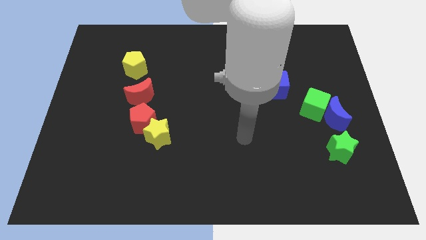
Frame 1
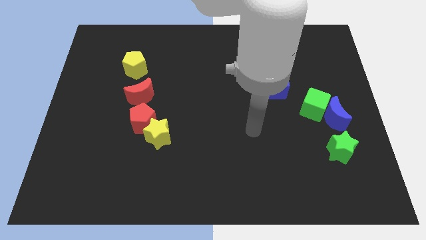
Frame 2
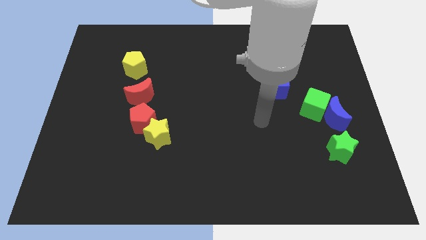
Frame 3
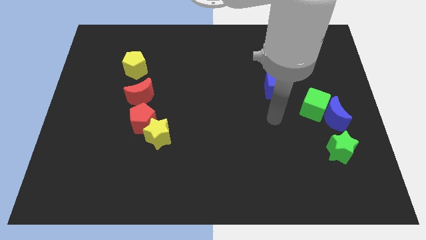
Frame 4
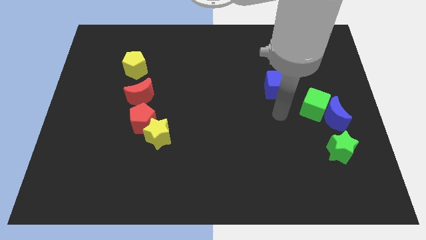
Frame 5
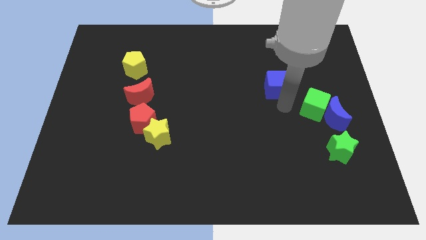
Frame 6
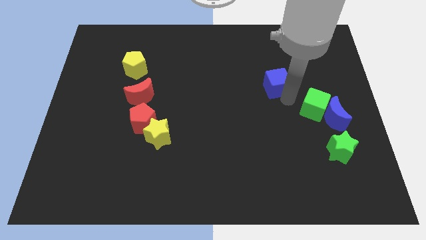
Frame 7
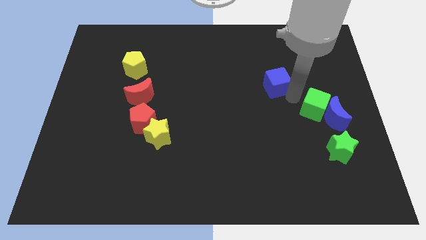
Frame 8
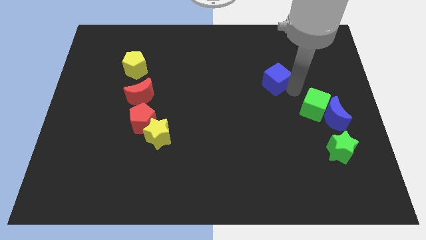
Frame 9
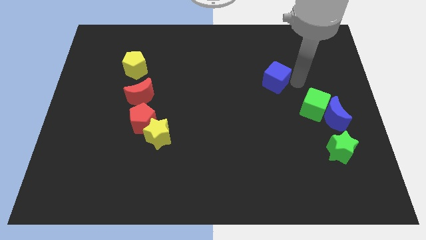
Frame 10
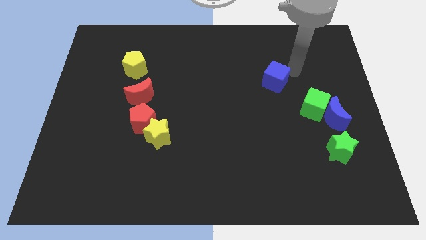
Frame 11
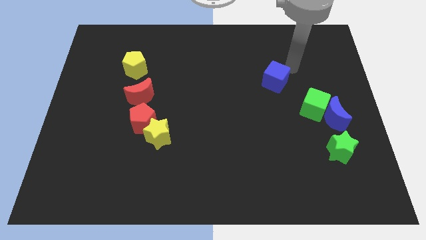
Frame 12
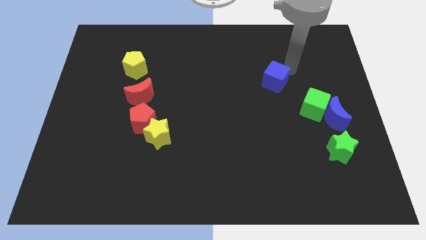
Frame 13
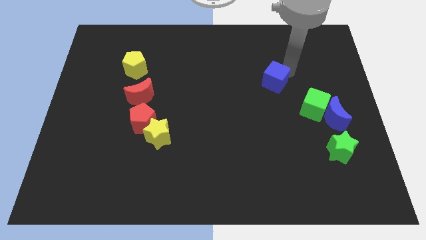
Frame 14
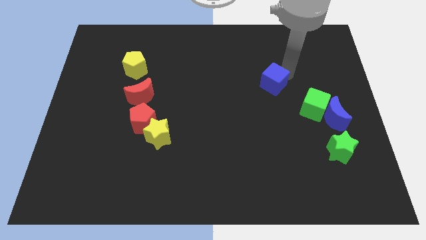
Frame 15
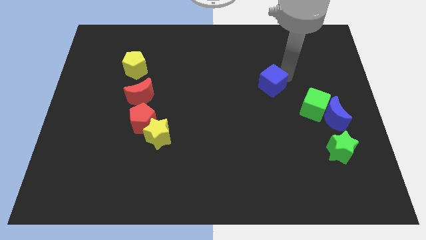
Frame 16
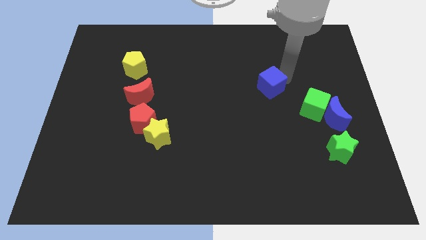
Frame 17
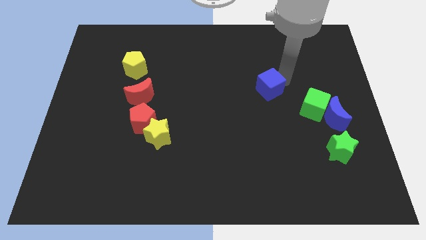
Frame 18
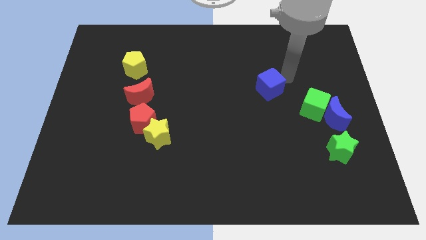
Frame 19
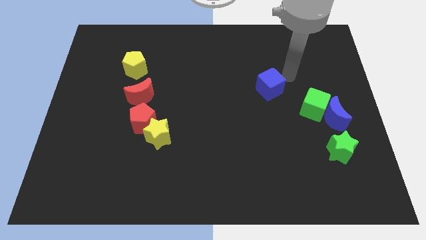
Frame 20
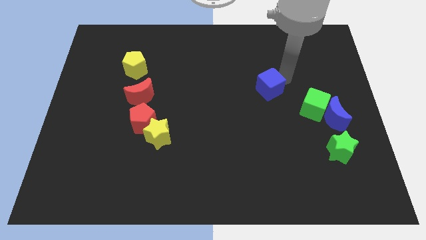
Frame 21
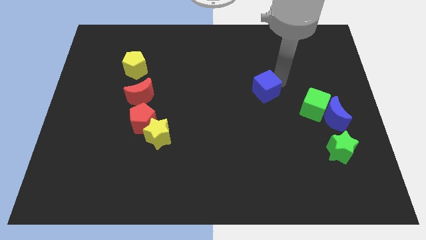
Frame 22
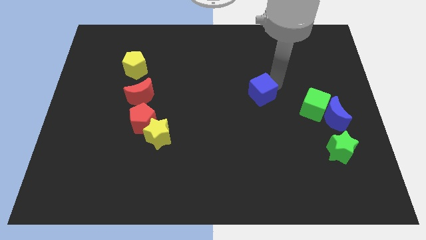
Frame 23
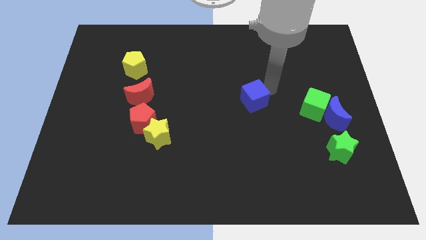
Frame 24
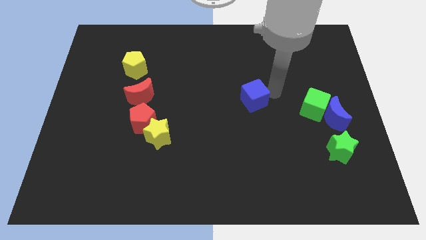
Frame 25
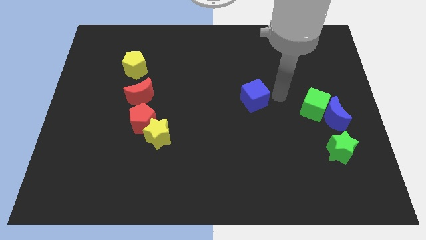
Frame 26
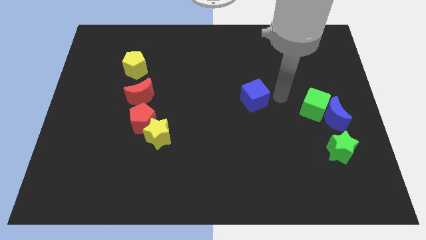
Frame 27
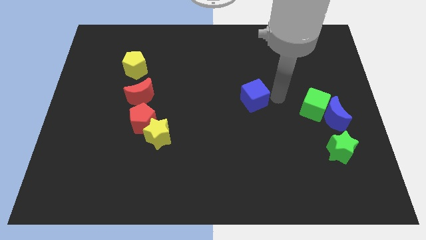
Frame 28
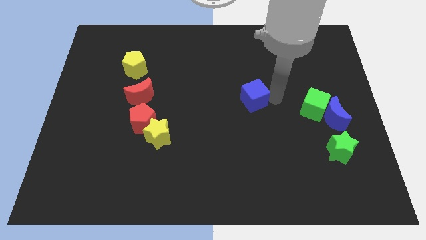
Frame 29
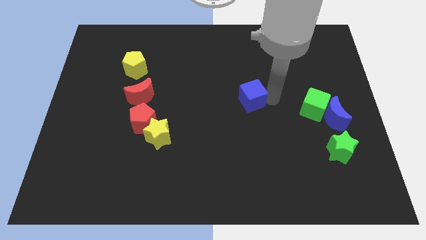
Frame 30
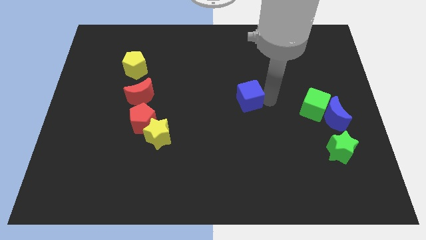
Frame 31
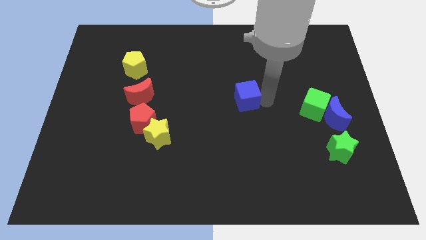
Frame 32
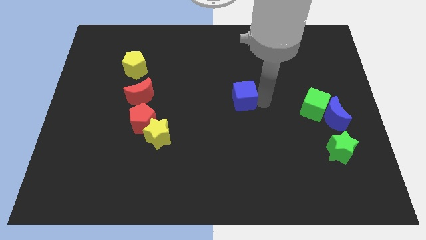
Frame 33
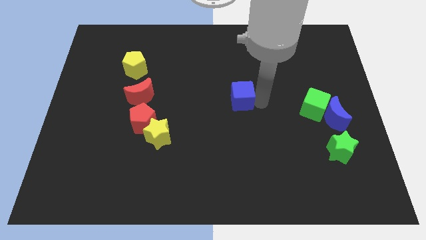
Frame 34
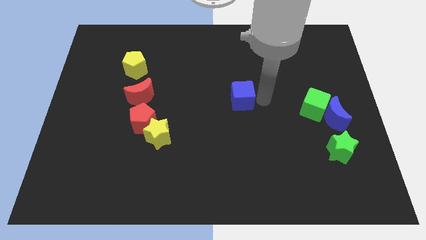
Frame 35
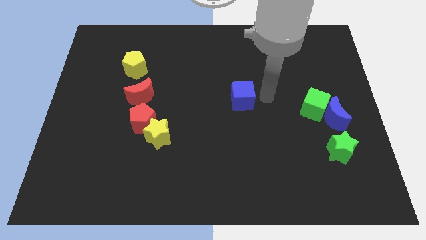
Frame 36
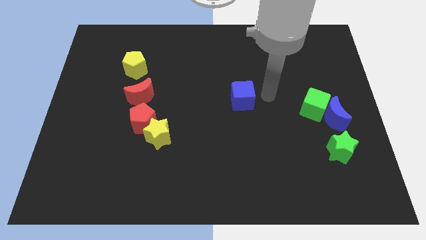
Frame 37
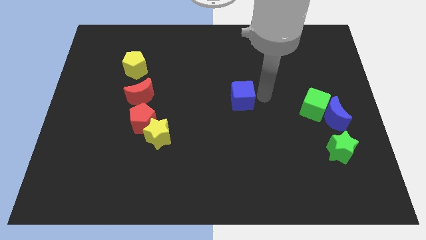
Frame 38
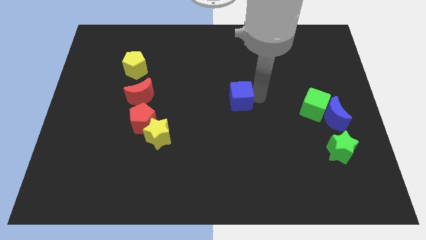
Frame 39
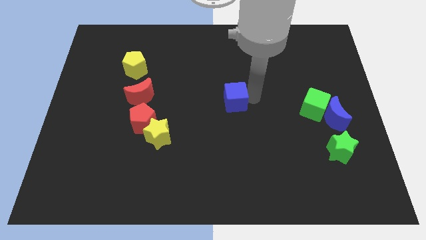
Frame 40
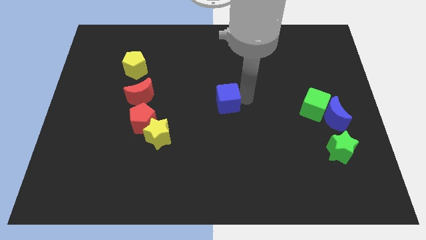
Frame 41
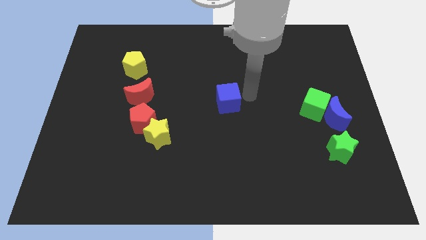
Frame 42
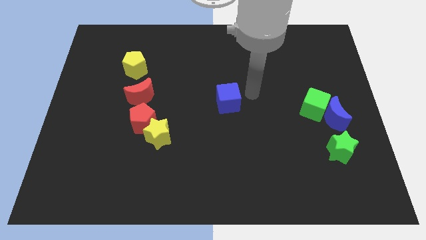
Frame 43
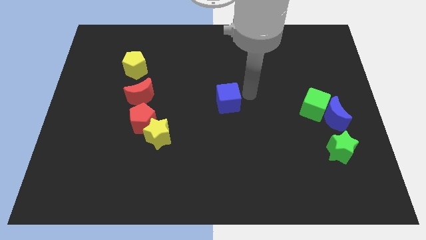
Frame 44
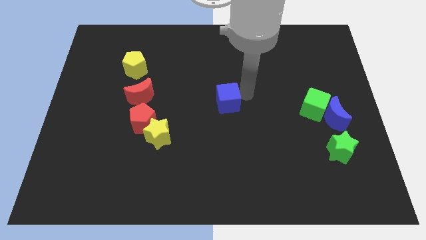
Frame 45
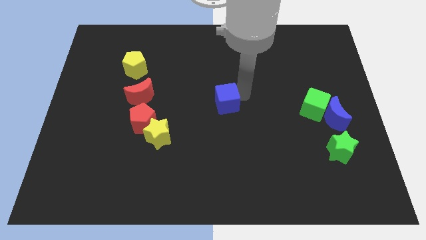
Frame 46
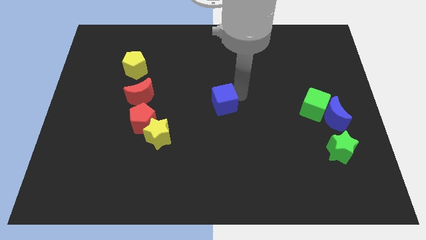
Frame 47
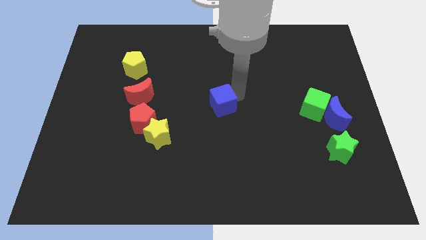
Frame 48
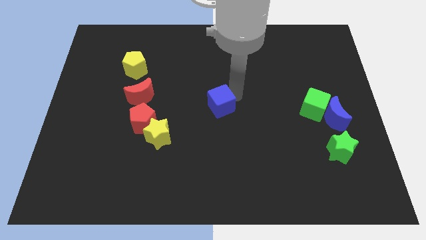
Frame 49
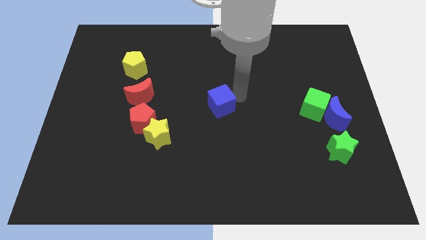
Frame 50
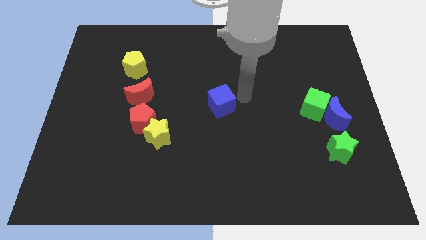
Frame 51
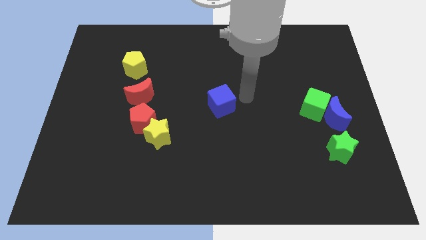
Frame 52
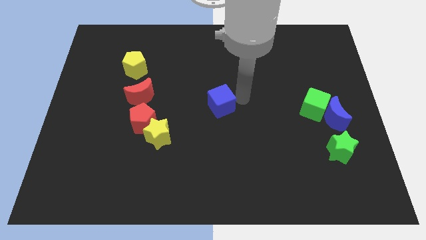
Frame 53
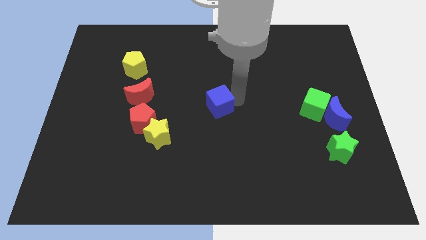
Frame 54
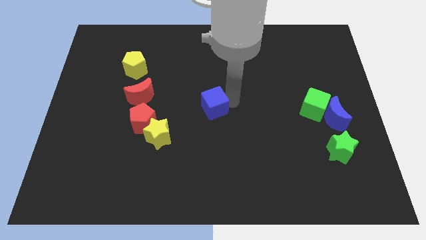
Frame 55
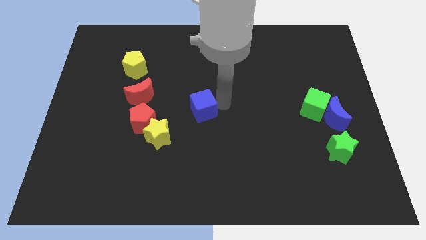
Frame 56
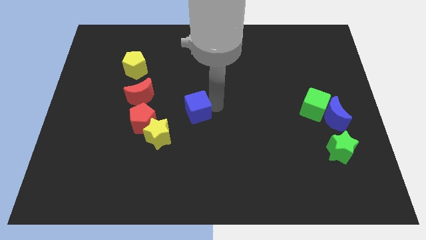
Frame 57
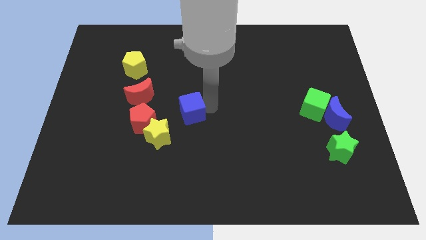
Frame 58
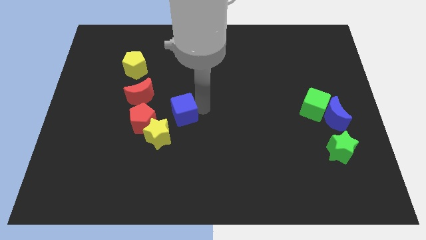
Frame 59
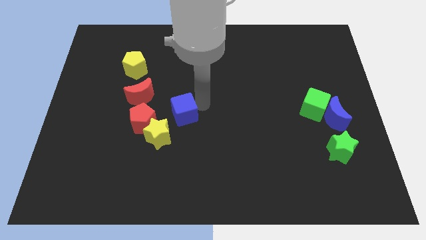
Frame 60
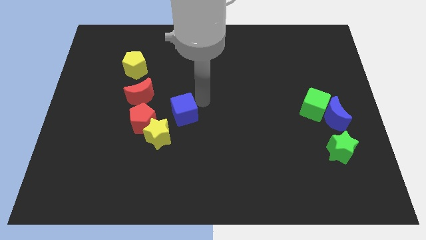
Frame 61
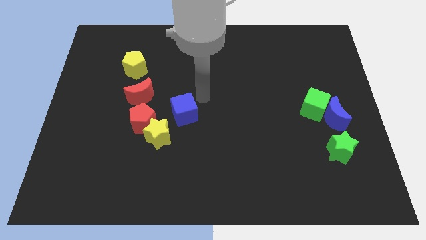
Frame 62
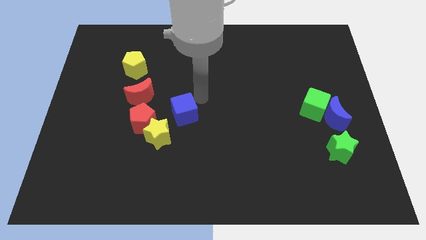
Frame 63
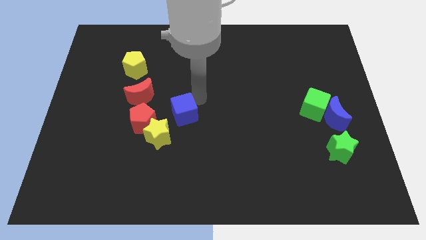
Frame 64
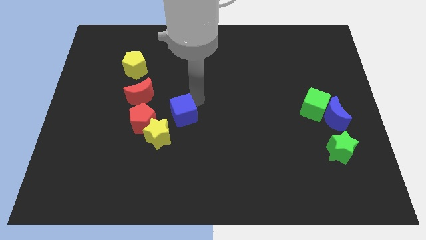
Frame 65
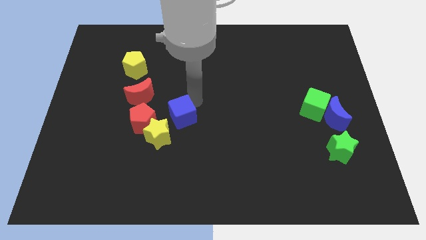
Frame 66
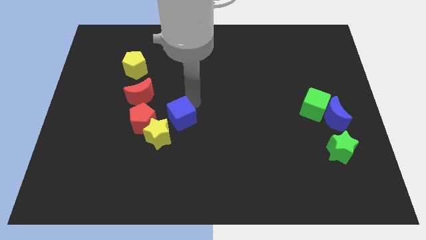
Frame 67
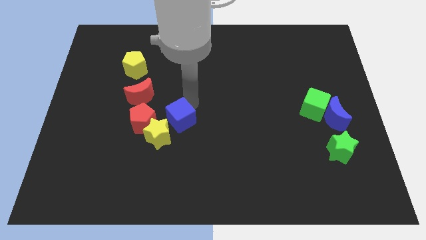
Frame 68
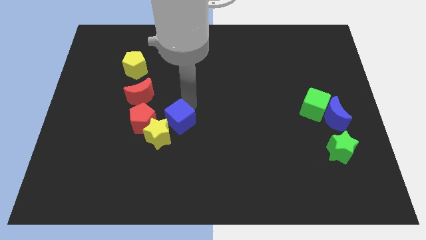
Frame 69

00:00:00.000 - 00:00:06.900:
push the blue cube to the yellow star
